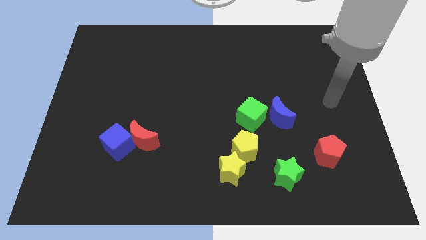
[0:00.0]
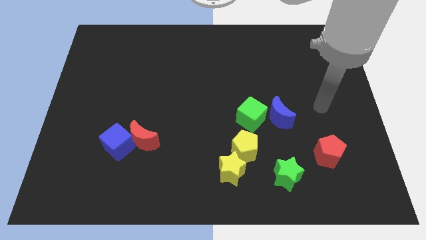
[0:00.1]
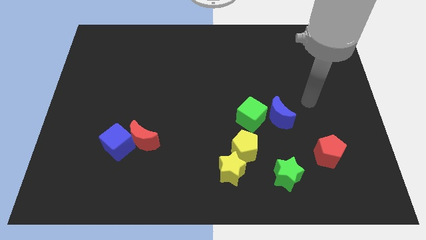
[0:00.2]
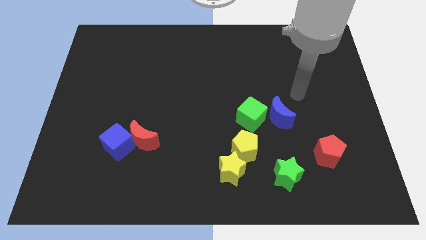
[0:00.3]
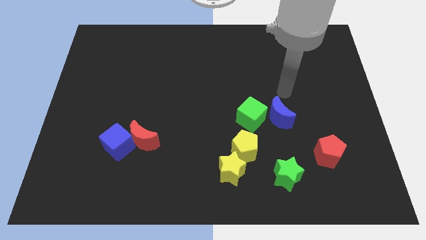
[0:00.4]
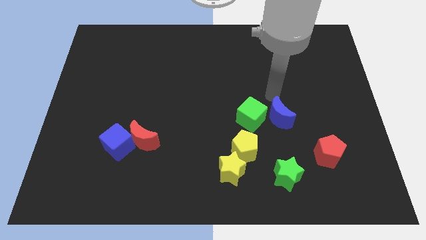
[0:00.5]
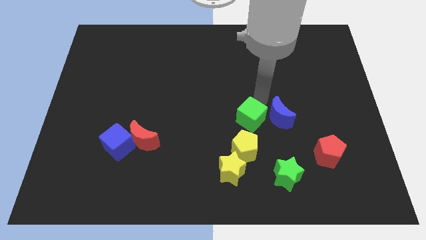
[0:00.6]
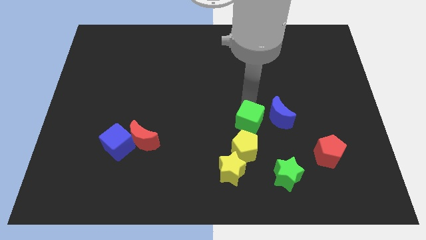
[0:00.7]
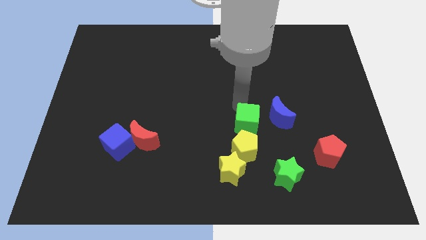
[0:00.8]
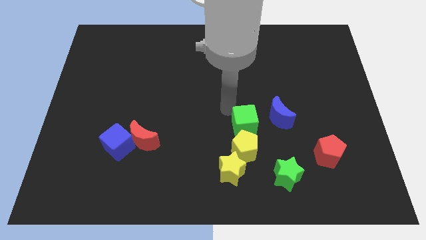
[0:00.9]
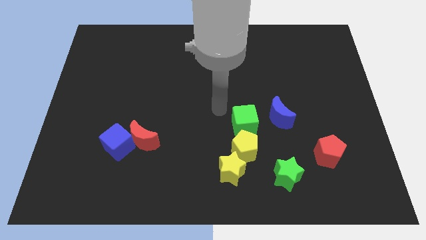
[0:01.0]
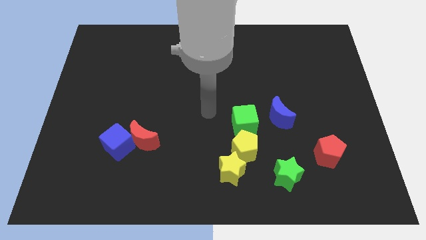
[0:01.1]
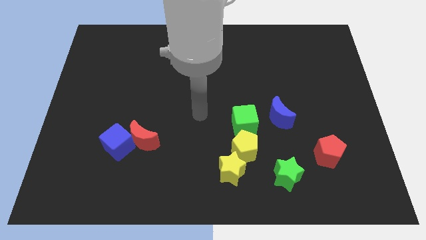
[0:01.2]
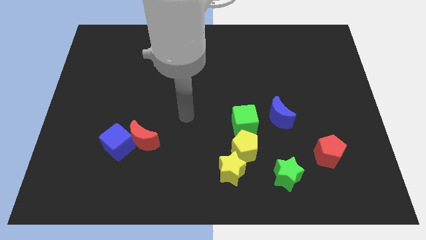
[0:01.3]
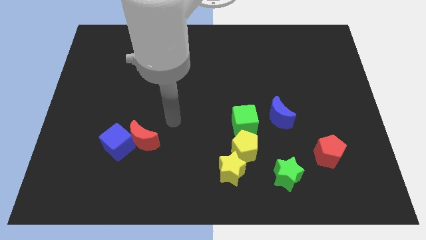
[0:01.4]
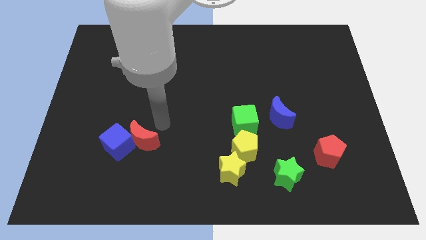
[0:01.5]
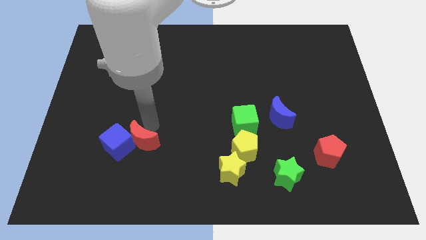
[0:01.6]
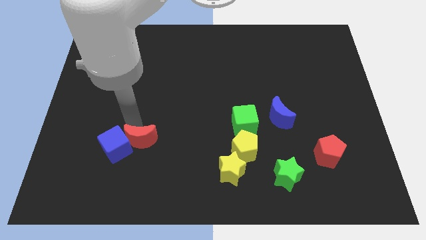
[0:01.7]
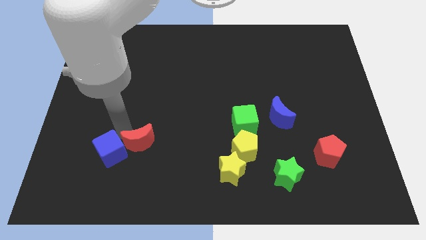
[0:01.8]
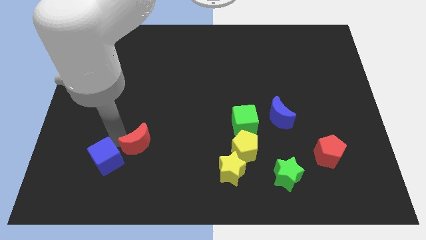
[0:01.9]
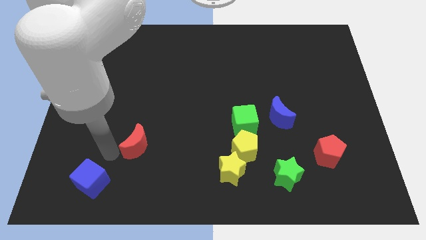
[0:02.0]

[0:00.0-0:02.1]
separate the red moon from the blue cube

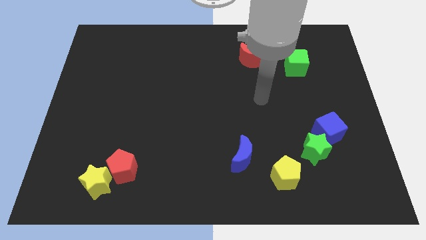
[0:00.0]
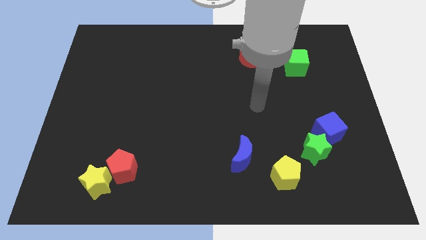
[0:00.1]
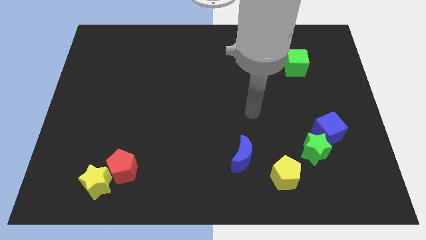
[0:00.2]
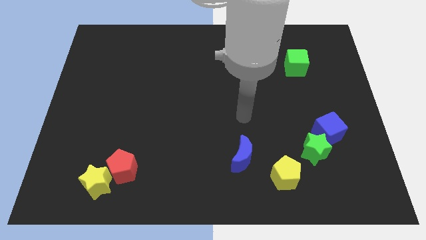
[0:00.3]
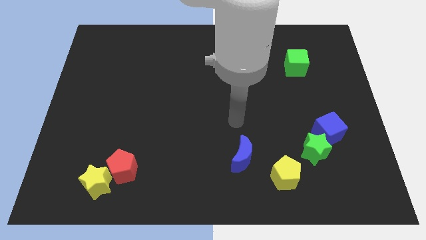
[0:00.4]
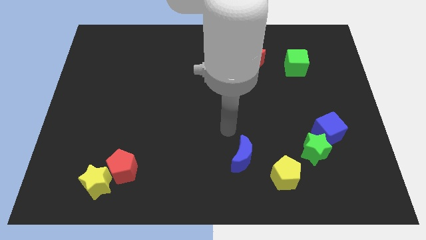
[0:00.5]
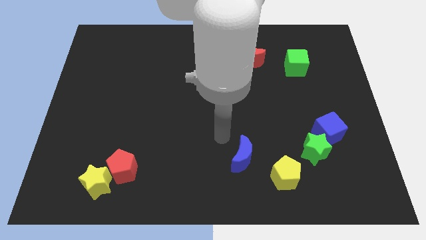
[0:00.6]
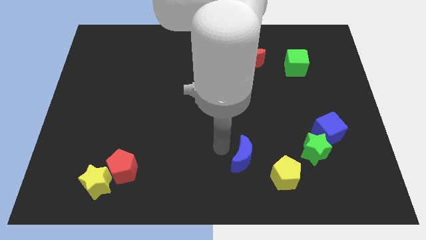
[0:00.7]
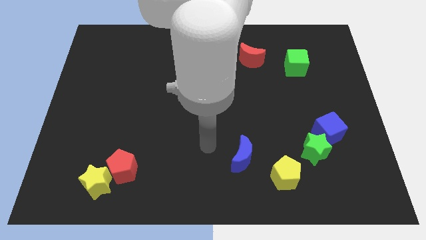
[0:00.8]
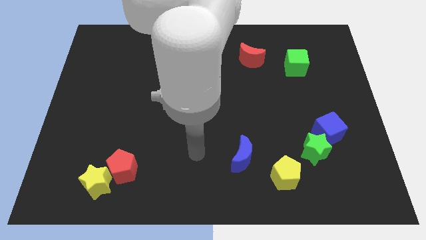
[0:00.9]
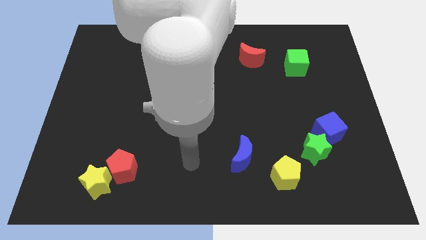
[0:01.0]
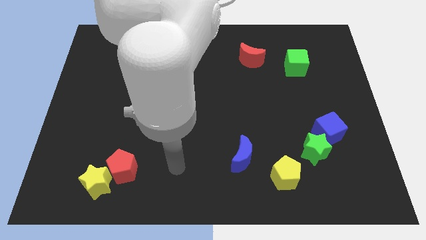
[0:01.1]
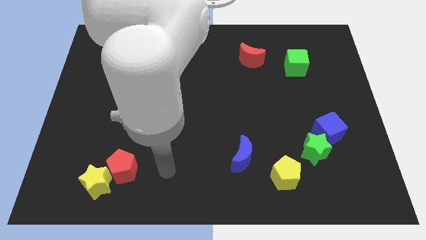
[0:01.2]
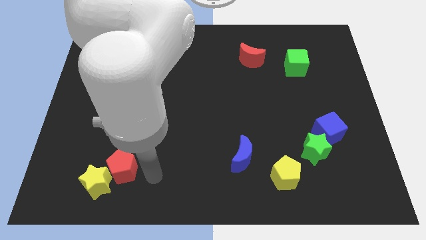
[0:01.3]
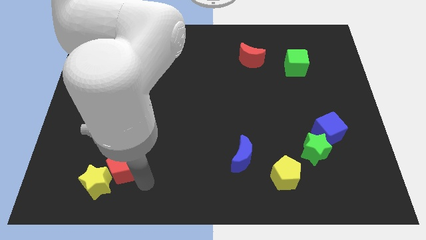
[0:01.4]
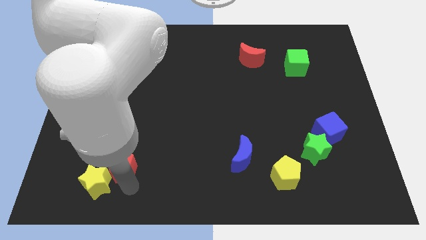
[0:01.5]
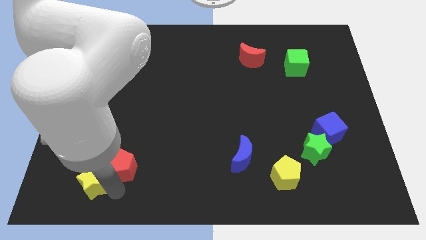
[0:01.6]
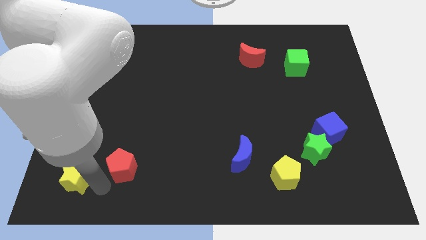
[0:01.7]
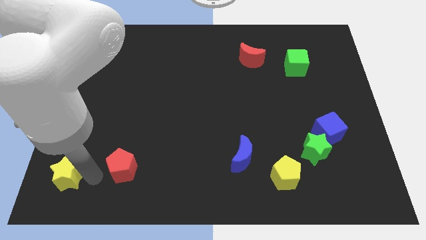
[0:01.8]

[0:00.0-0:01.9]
move the red pentagon away from the yellow star

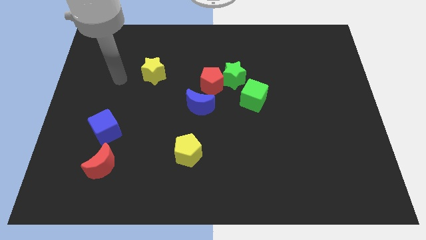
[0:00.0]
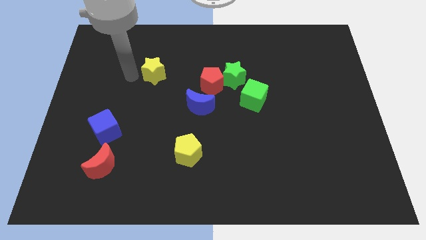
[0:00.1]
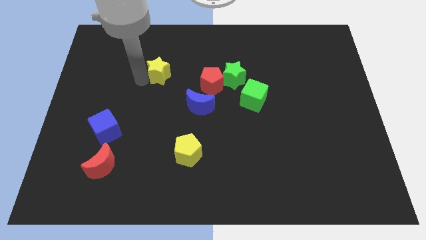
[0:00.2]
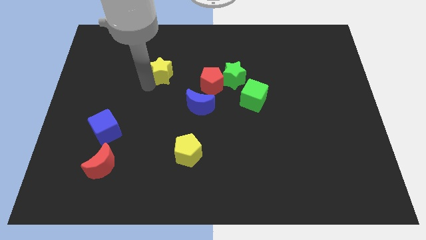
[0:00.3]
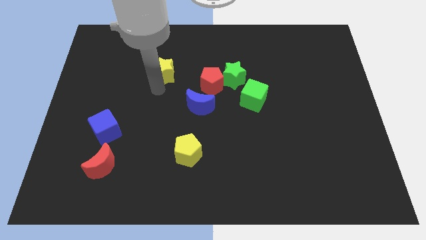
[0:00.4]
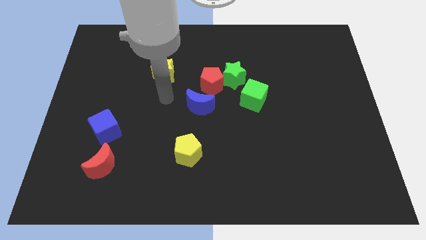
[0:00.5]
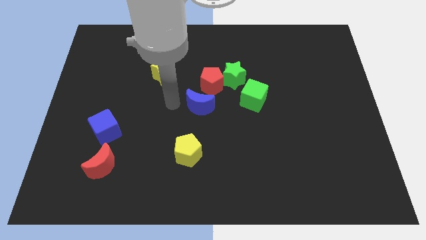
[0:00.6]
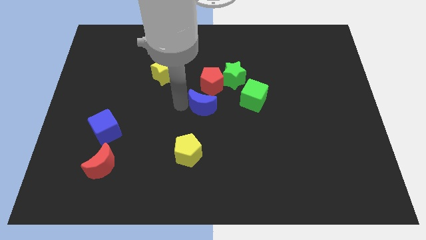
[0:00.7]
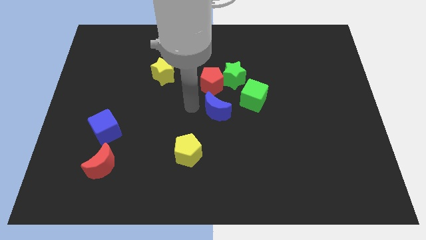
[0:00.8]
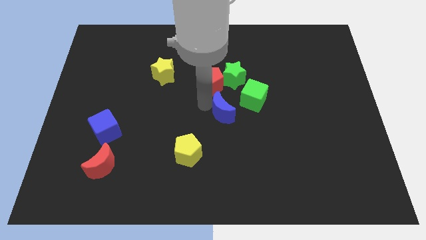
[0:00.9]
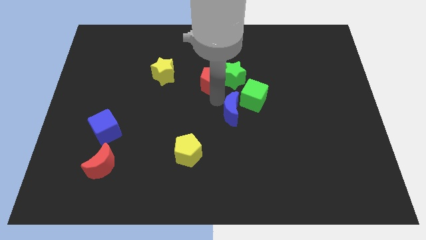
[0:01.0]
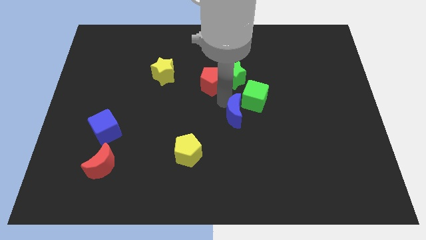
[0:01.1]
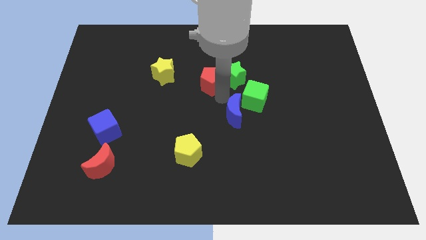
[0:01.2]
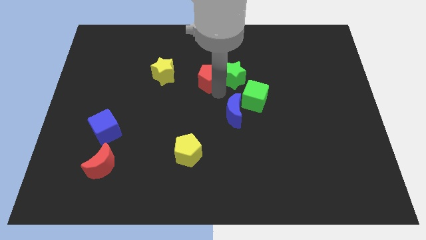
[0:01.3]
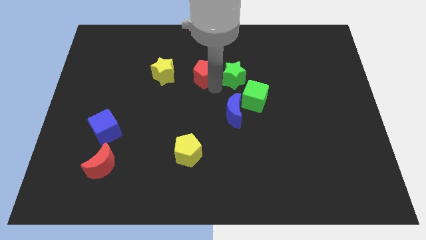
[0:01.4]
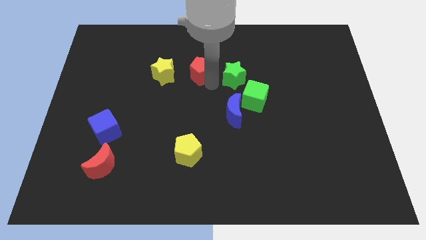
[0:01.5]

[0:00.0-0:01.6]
move the red pentagon away from the green star and blue moon

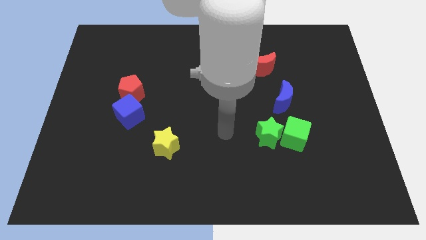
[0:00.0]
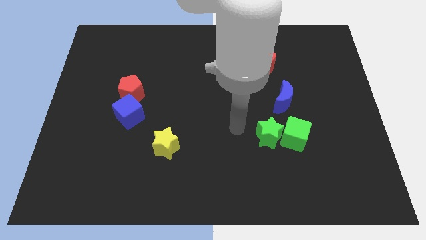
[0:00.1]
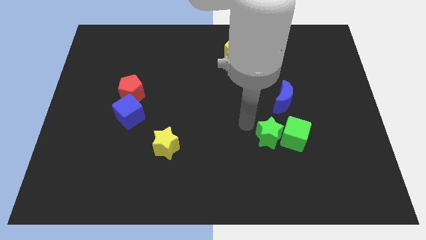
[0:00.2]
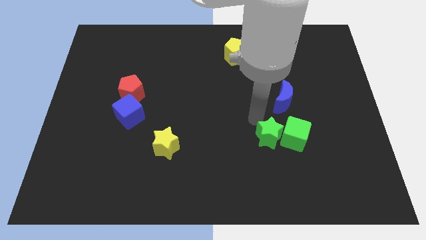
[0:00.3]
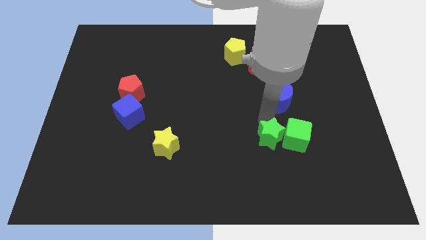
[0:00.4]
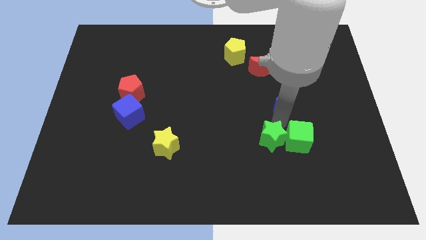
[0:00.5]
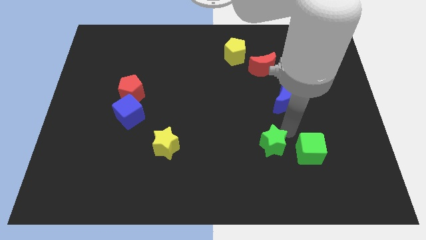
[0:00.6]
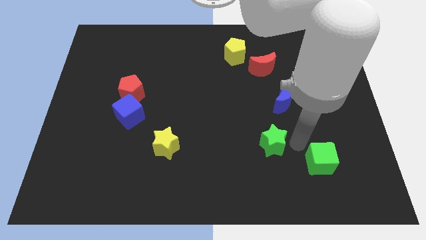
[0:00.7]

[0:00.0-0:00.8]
pull the green star apart from the green cube

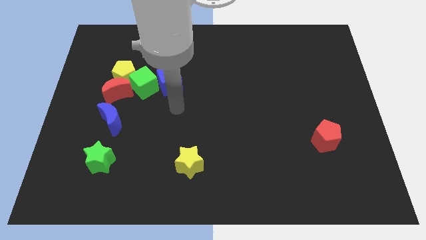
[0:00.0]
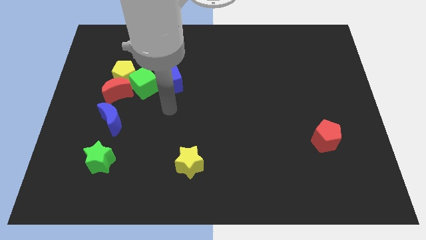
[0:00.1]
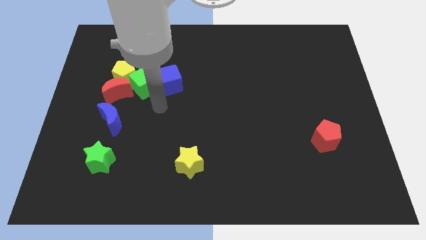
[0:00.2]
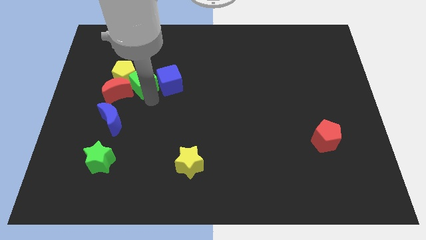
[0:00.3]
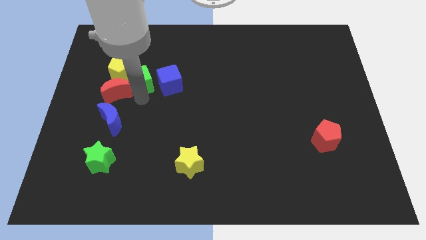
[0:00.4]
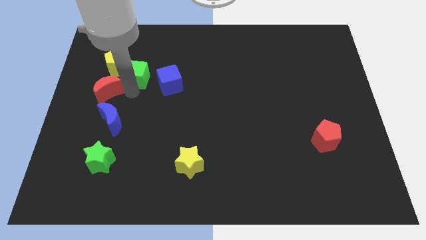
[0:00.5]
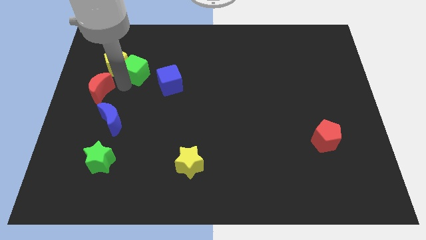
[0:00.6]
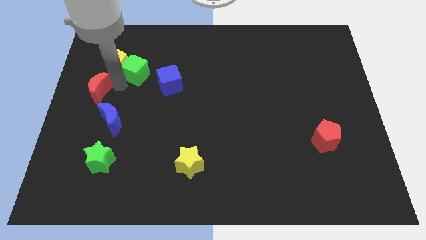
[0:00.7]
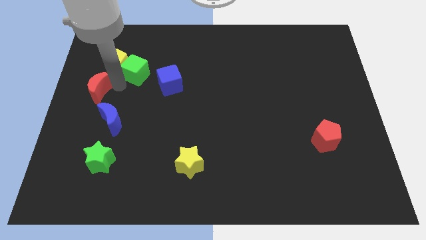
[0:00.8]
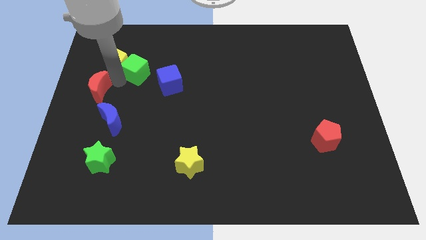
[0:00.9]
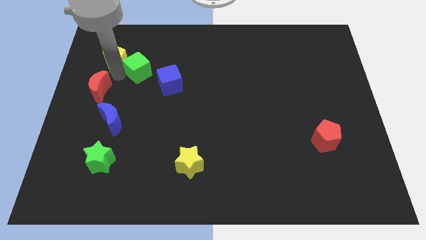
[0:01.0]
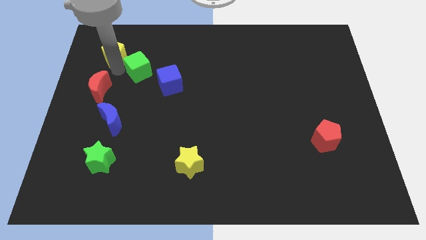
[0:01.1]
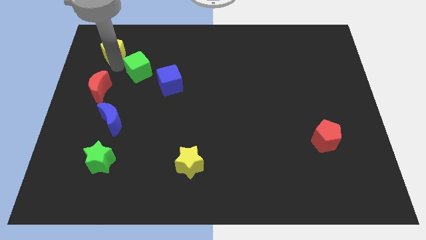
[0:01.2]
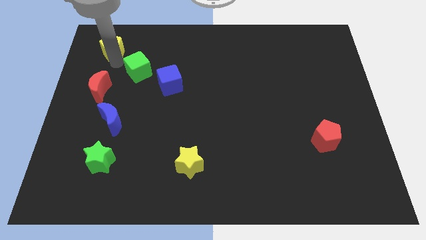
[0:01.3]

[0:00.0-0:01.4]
separate the yellow pentagon from the red moon and green cube

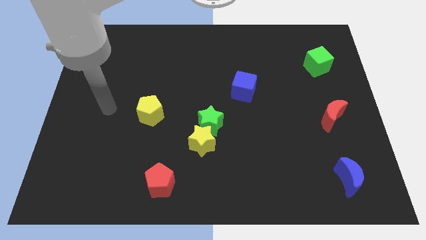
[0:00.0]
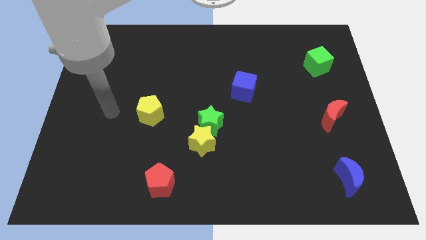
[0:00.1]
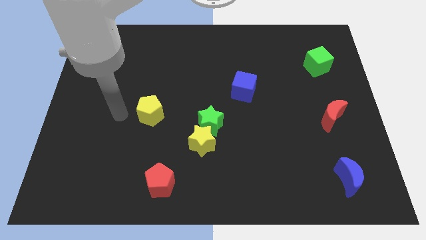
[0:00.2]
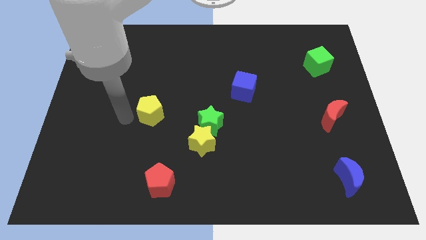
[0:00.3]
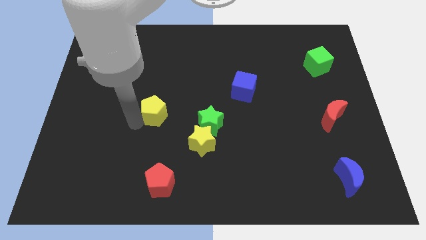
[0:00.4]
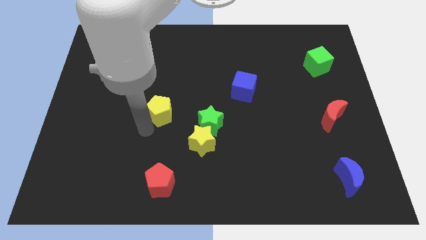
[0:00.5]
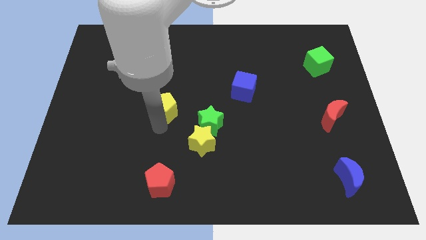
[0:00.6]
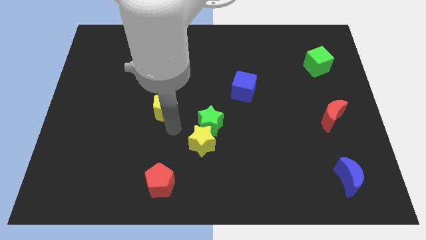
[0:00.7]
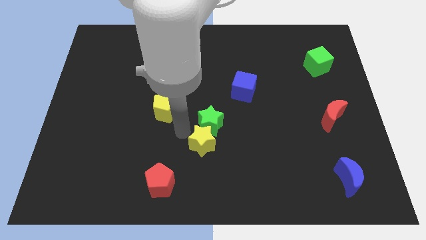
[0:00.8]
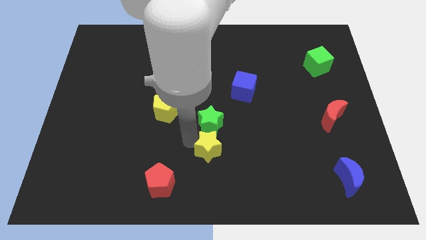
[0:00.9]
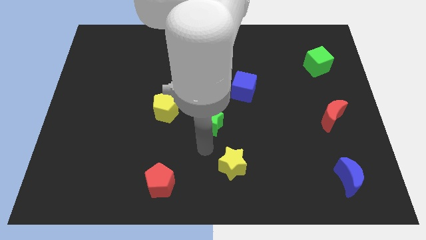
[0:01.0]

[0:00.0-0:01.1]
move the green star away from the yellow star

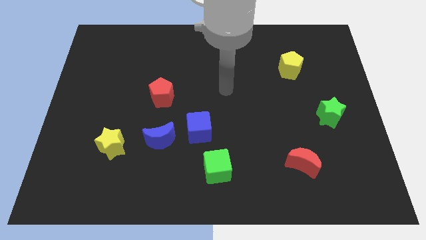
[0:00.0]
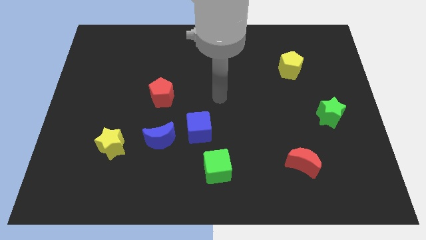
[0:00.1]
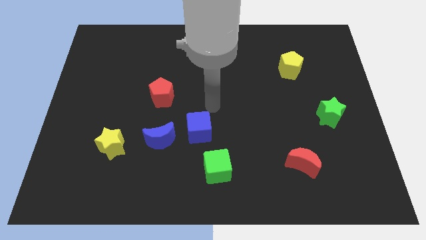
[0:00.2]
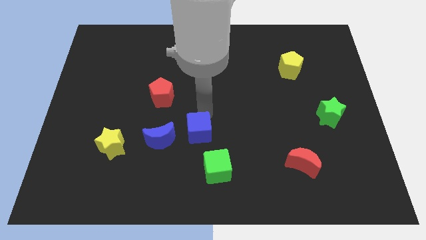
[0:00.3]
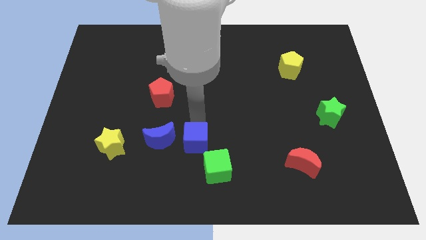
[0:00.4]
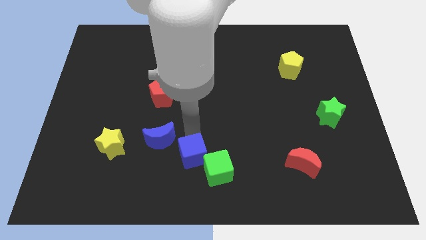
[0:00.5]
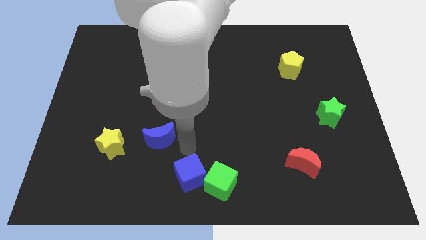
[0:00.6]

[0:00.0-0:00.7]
move the blue moon away from the blue cube
